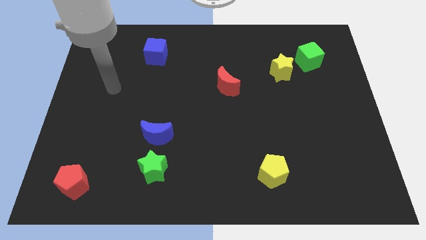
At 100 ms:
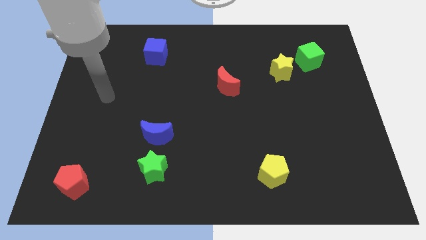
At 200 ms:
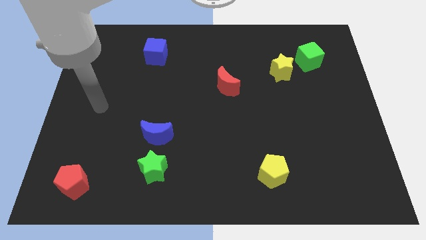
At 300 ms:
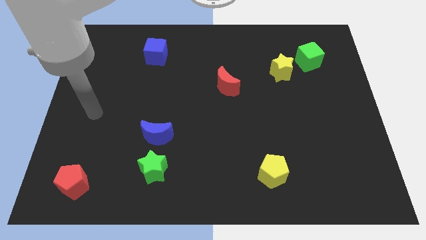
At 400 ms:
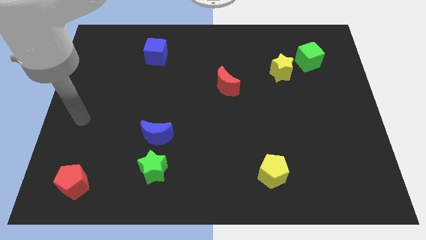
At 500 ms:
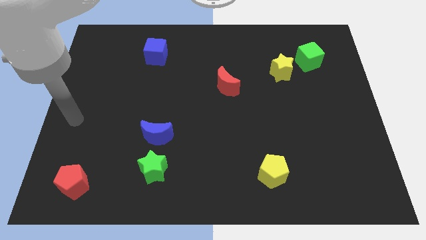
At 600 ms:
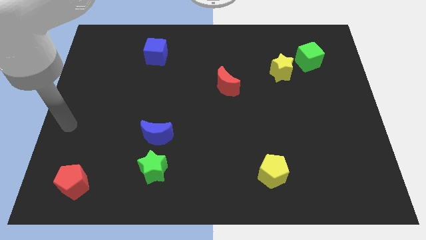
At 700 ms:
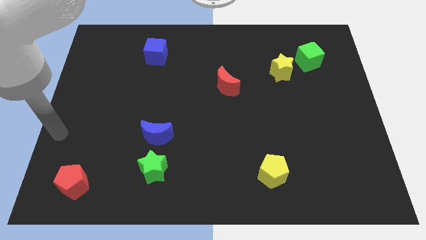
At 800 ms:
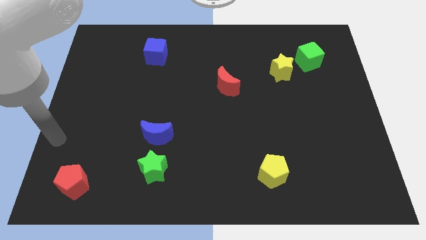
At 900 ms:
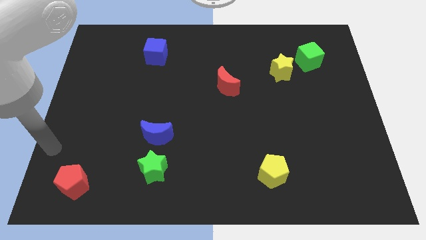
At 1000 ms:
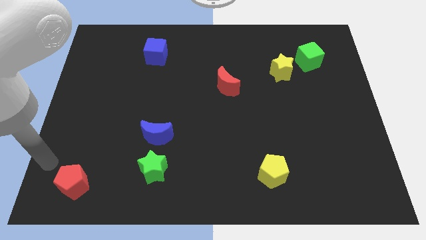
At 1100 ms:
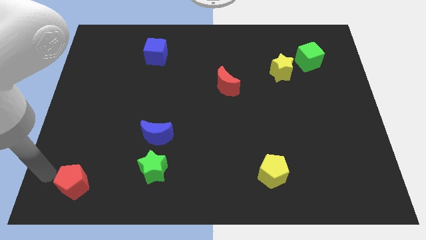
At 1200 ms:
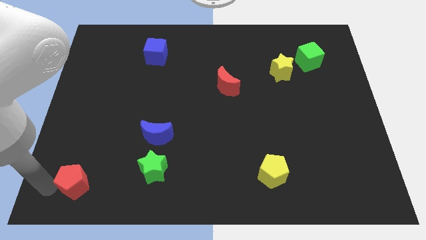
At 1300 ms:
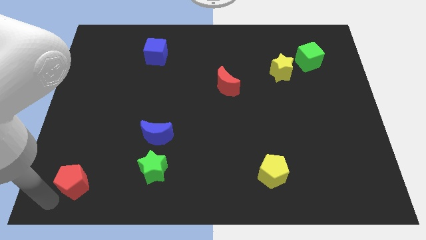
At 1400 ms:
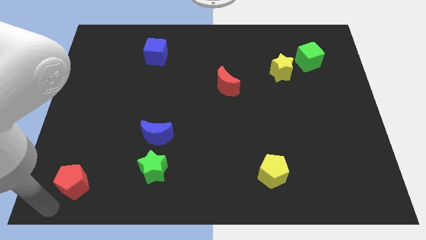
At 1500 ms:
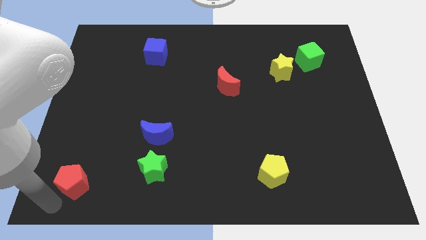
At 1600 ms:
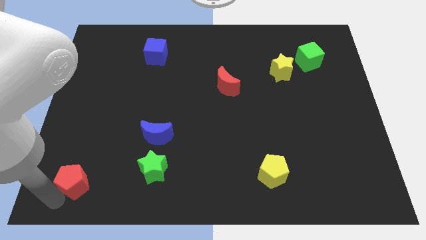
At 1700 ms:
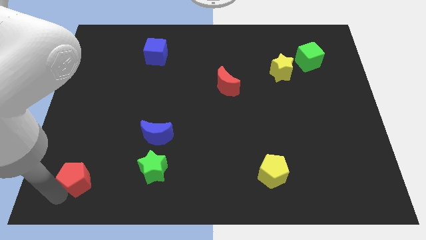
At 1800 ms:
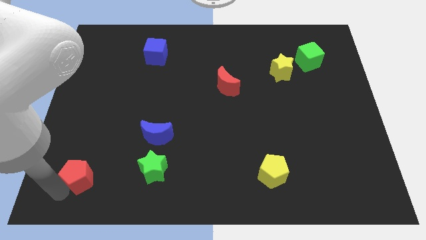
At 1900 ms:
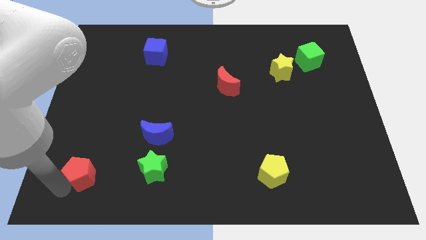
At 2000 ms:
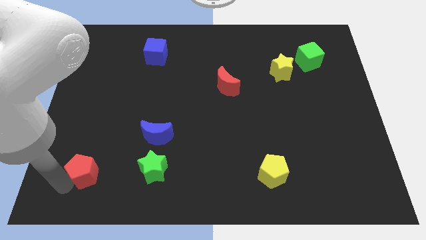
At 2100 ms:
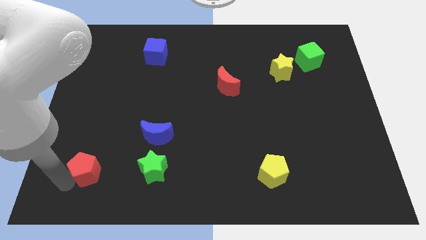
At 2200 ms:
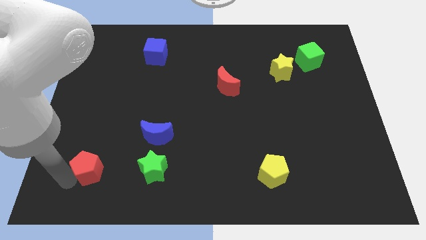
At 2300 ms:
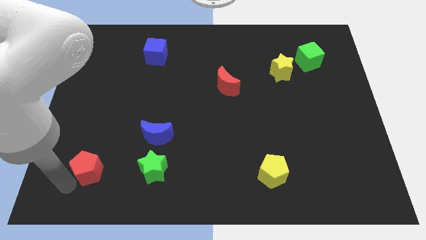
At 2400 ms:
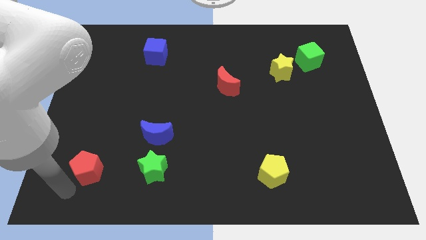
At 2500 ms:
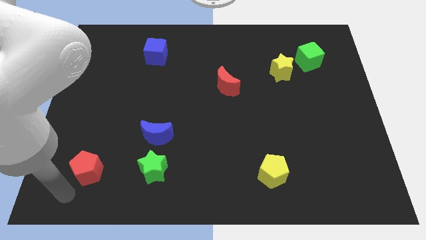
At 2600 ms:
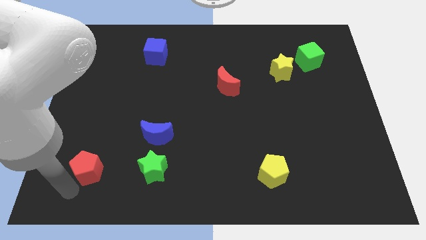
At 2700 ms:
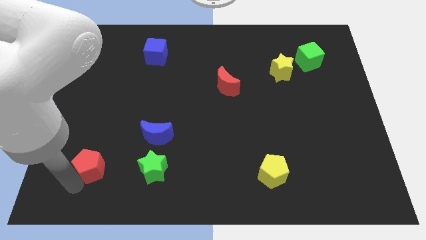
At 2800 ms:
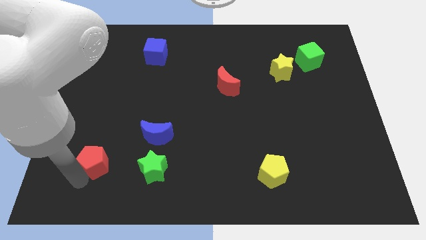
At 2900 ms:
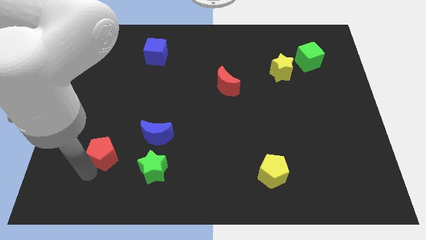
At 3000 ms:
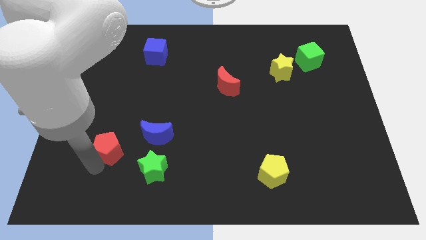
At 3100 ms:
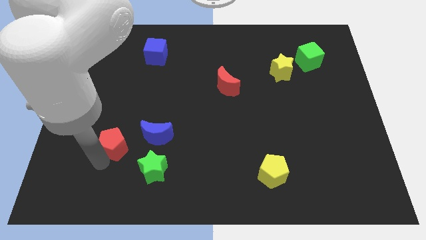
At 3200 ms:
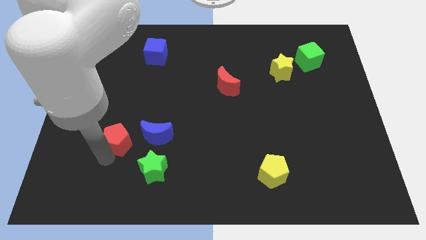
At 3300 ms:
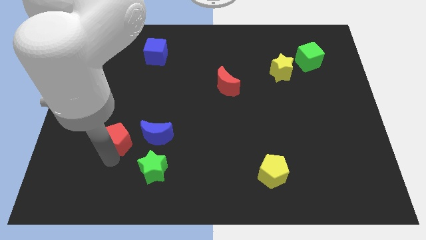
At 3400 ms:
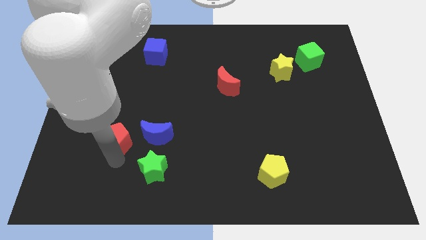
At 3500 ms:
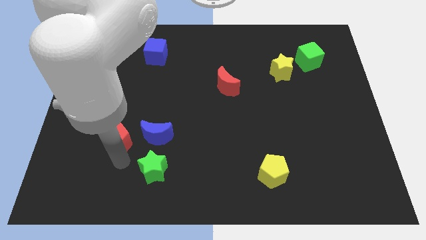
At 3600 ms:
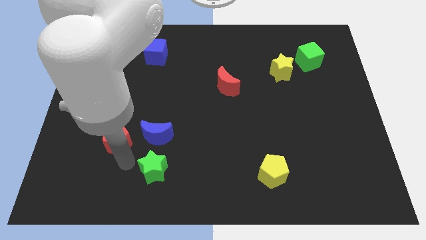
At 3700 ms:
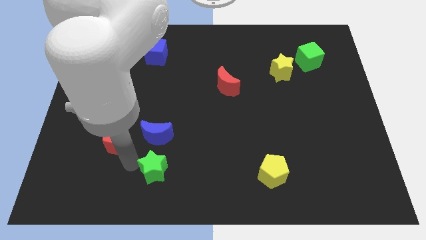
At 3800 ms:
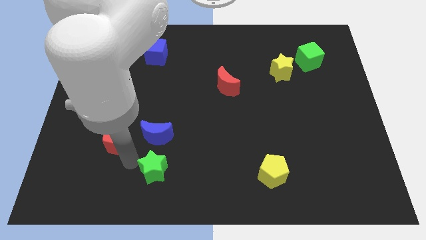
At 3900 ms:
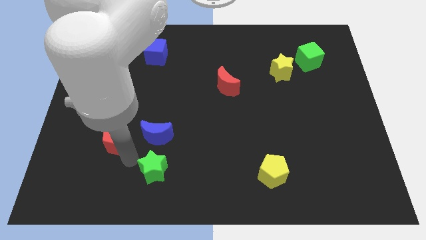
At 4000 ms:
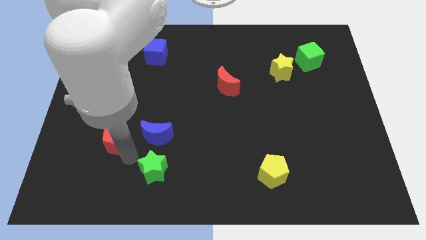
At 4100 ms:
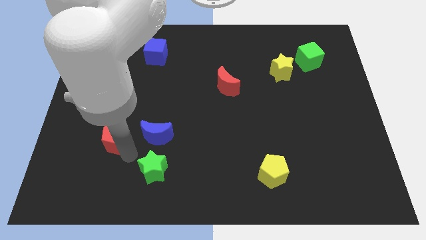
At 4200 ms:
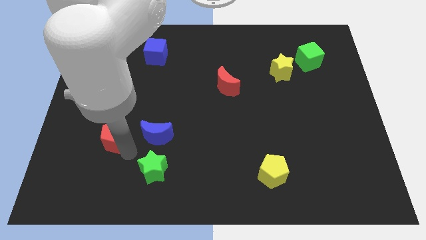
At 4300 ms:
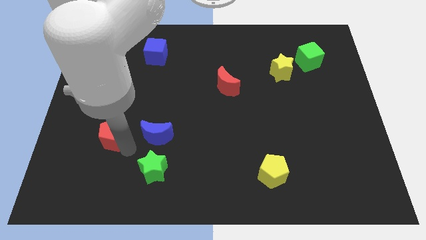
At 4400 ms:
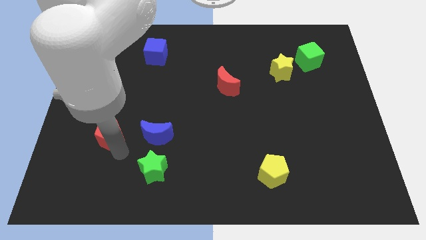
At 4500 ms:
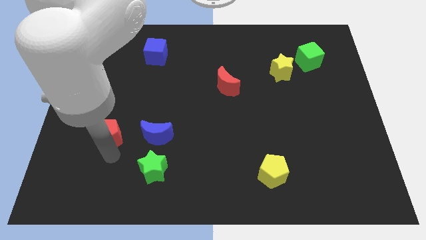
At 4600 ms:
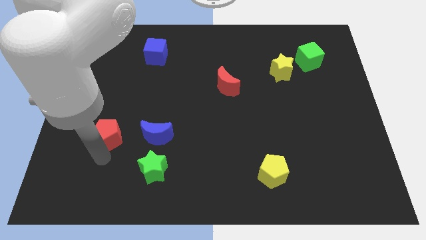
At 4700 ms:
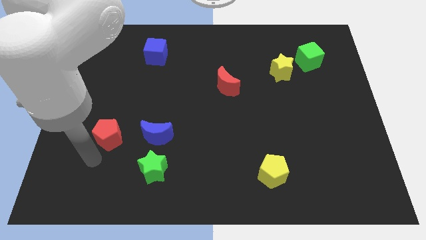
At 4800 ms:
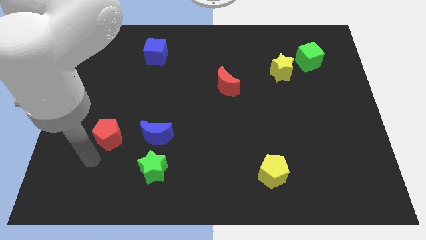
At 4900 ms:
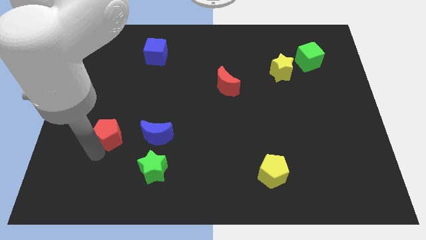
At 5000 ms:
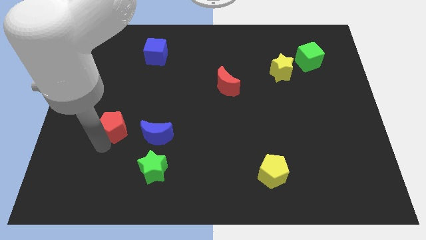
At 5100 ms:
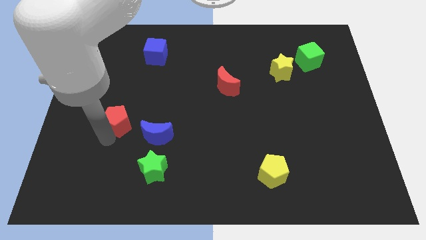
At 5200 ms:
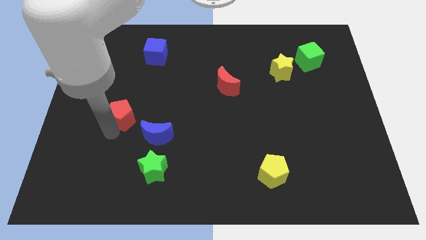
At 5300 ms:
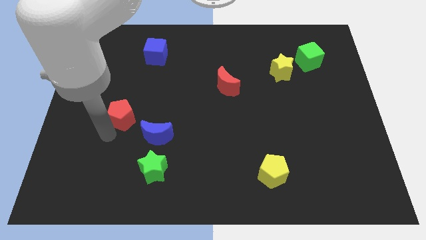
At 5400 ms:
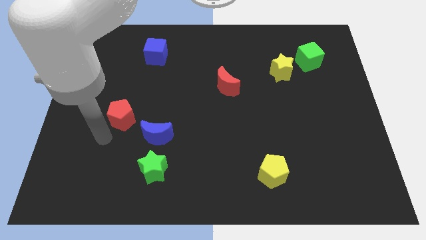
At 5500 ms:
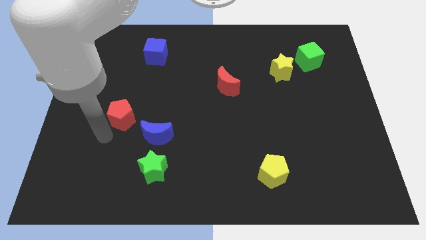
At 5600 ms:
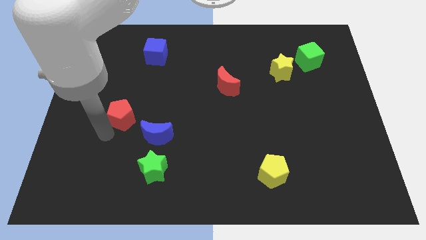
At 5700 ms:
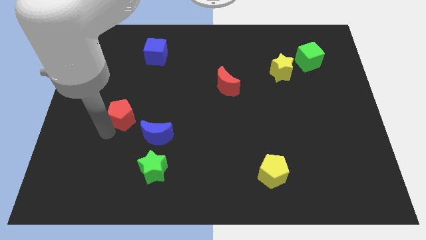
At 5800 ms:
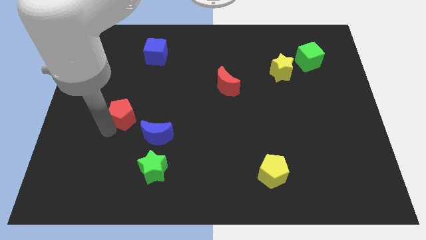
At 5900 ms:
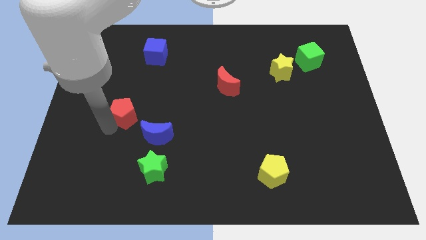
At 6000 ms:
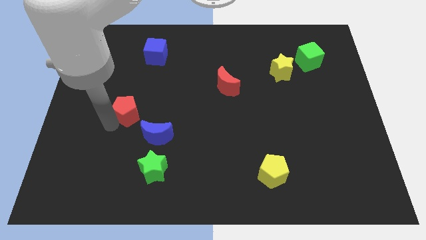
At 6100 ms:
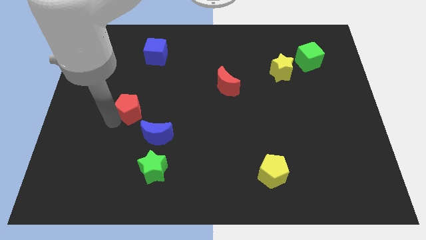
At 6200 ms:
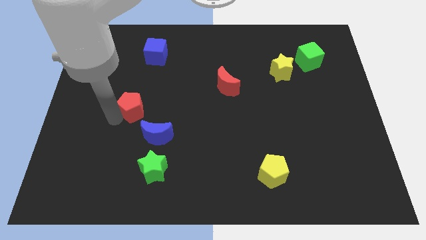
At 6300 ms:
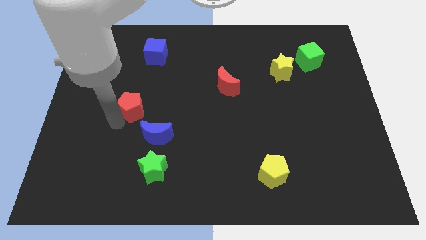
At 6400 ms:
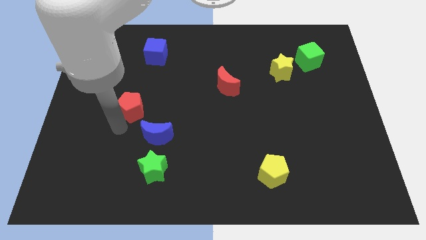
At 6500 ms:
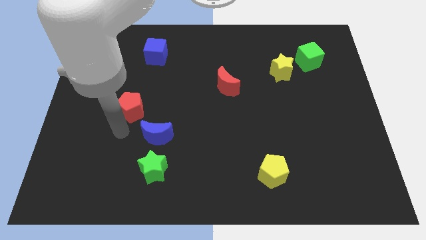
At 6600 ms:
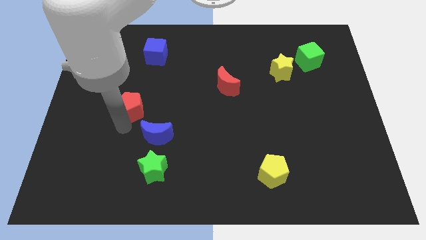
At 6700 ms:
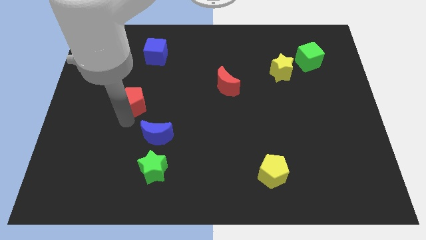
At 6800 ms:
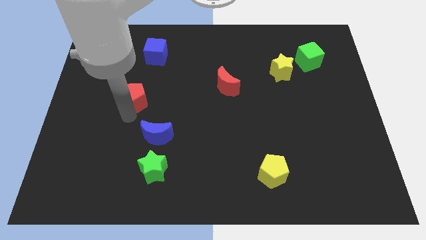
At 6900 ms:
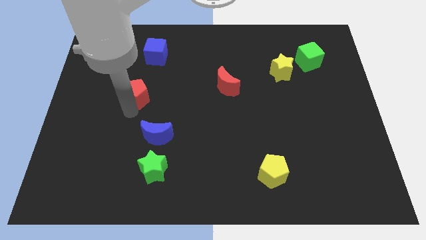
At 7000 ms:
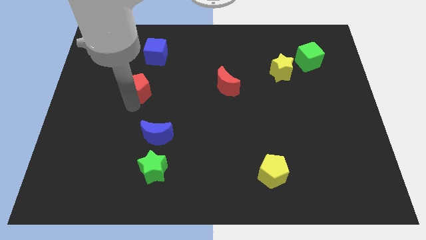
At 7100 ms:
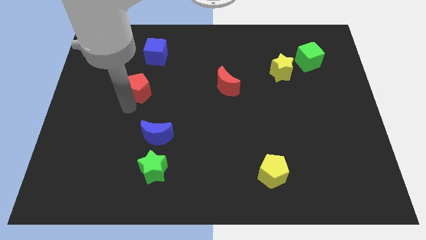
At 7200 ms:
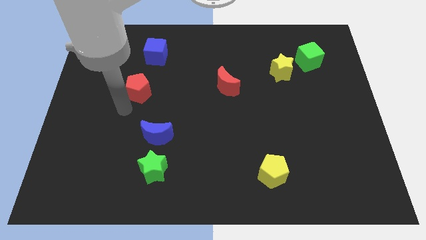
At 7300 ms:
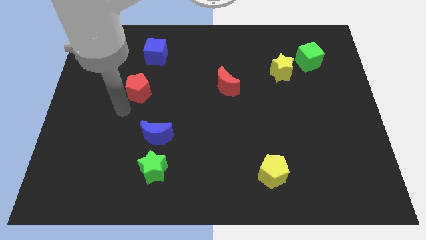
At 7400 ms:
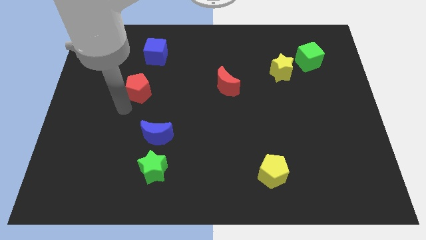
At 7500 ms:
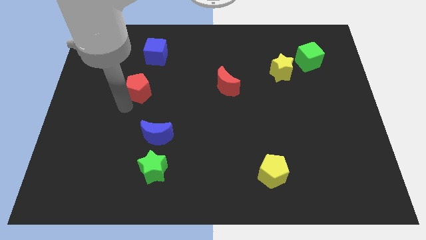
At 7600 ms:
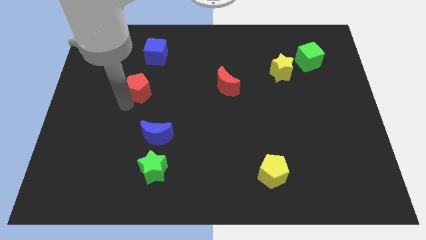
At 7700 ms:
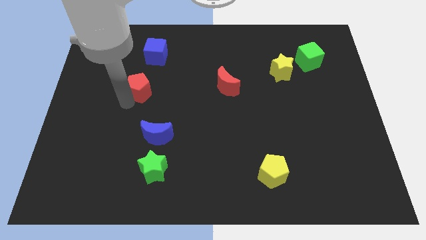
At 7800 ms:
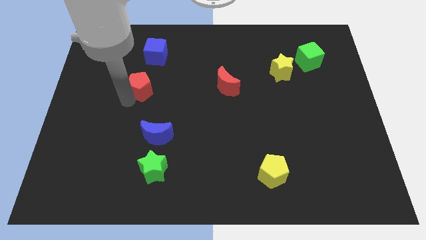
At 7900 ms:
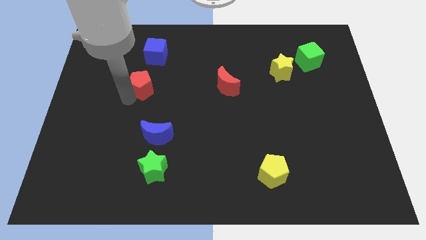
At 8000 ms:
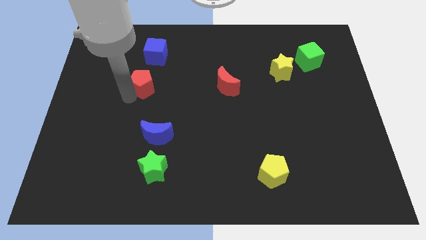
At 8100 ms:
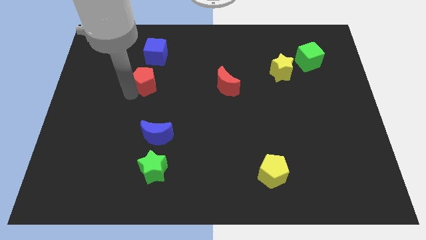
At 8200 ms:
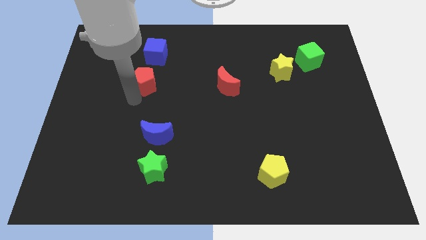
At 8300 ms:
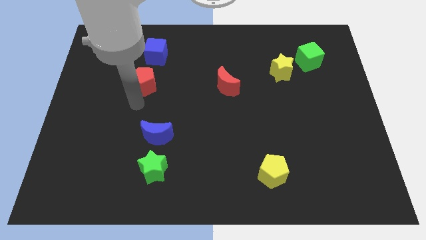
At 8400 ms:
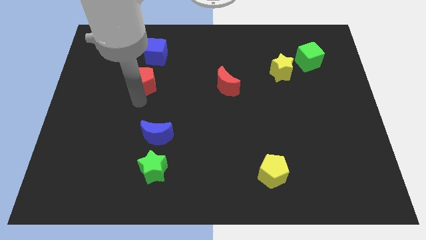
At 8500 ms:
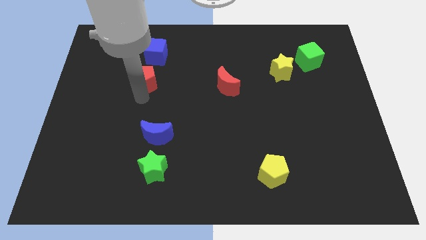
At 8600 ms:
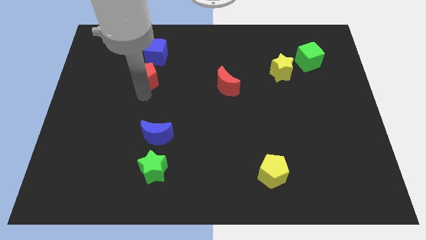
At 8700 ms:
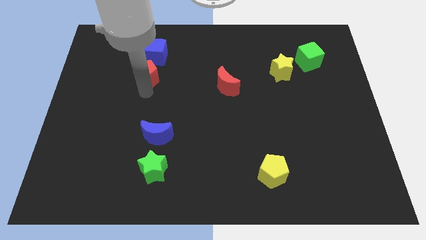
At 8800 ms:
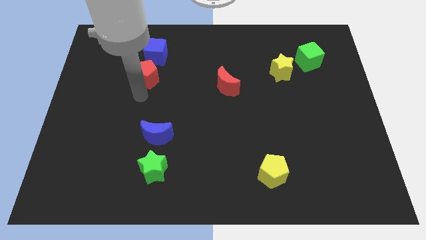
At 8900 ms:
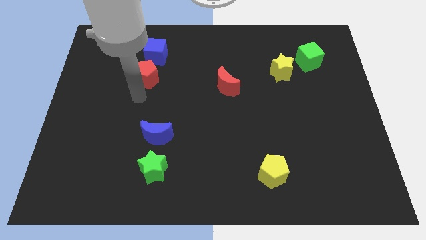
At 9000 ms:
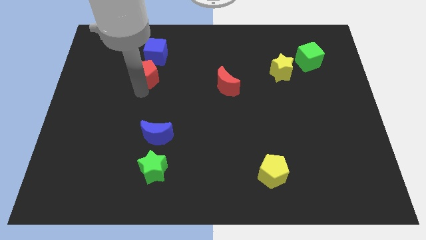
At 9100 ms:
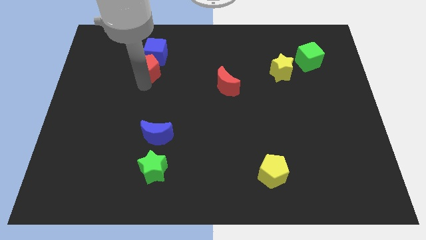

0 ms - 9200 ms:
slide the red pentagon to the blue cube
